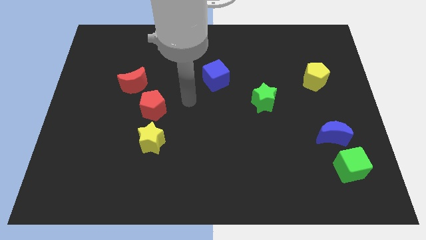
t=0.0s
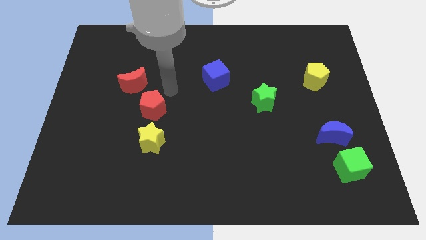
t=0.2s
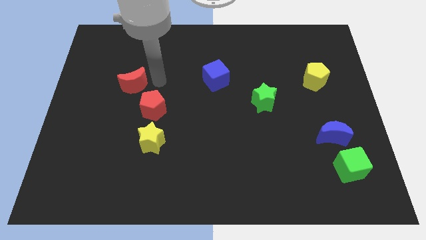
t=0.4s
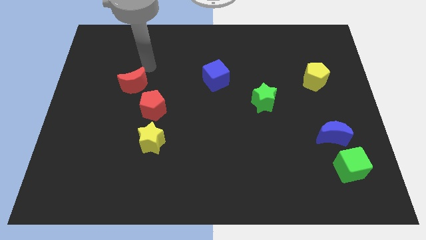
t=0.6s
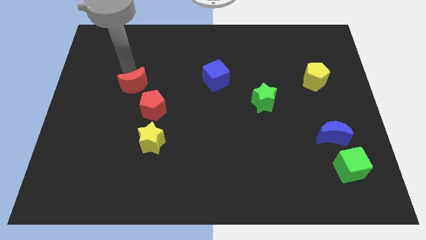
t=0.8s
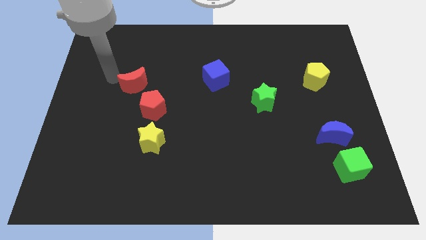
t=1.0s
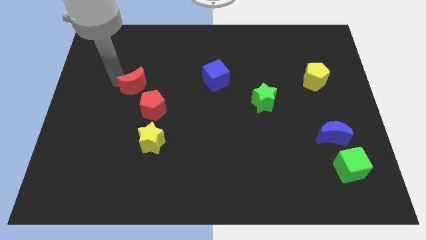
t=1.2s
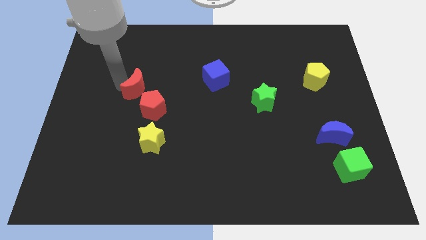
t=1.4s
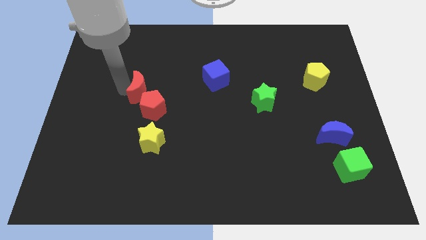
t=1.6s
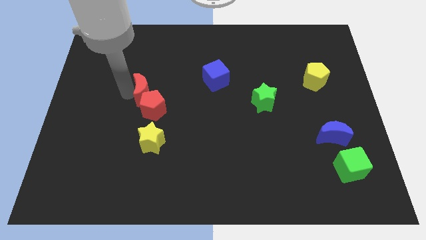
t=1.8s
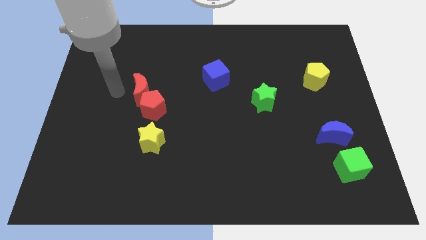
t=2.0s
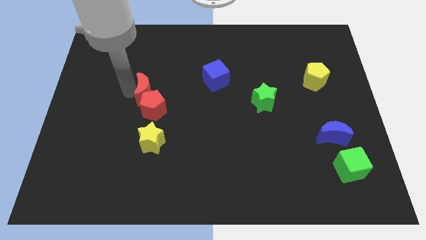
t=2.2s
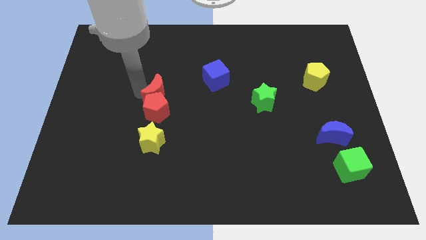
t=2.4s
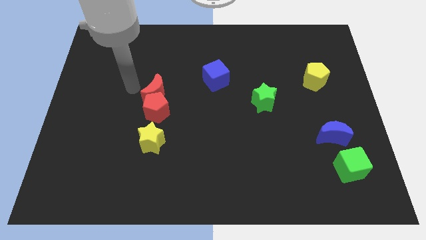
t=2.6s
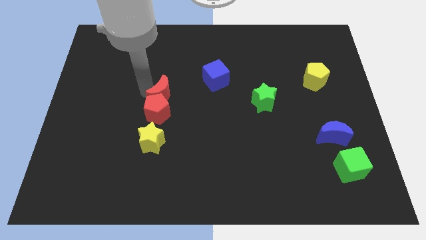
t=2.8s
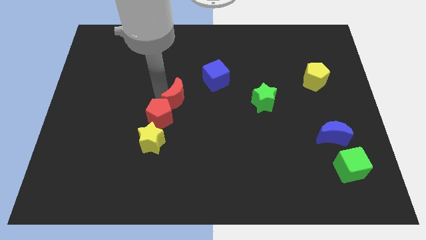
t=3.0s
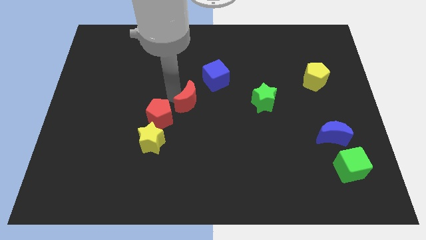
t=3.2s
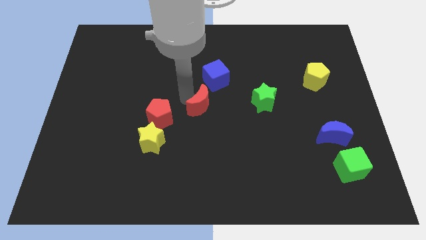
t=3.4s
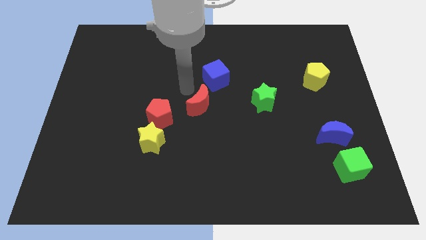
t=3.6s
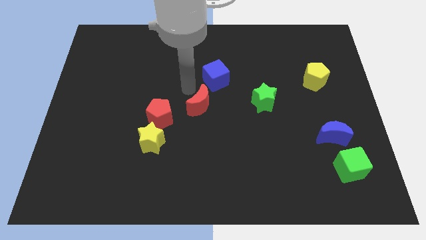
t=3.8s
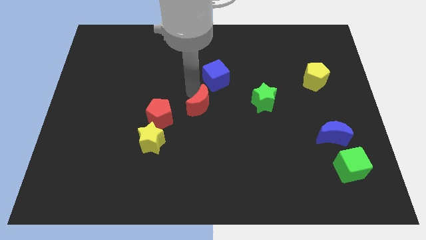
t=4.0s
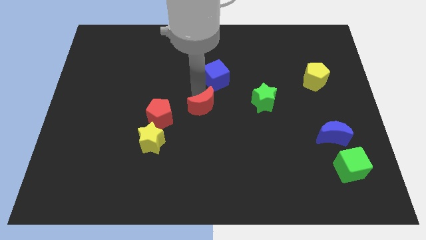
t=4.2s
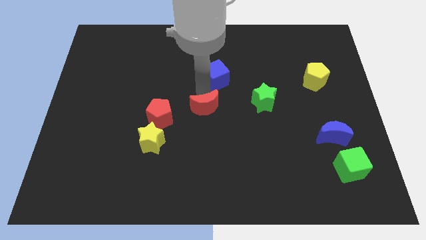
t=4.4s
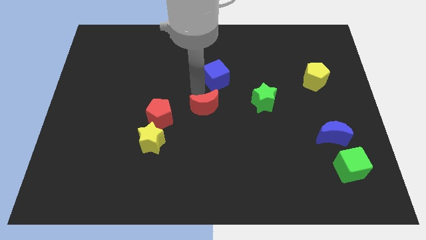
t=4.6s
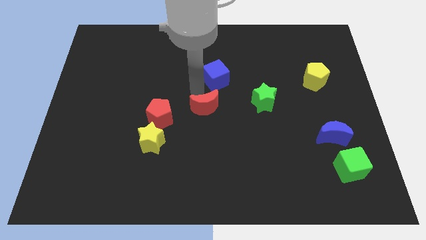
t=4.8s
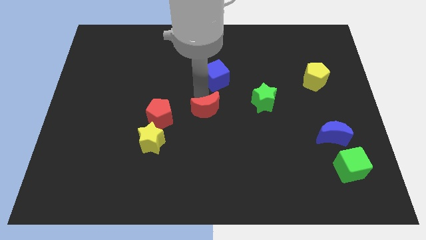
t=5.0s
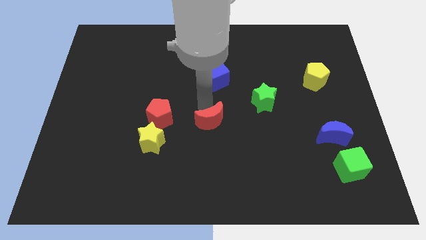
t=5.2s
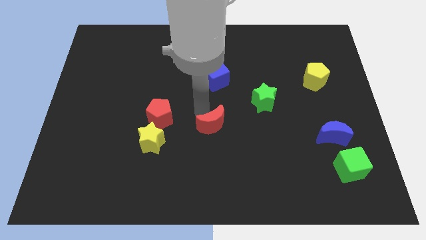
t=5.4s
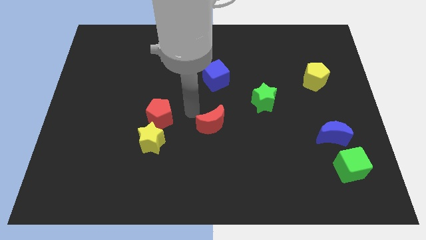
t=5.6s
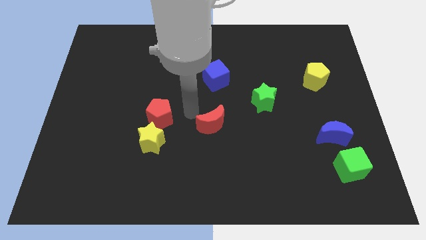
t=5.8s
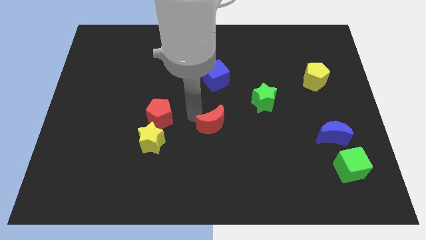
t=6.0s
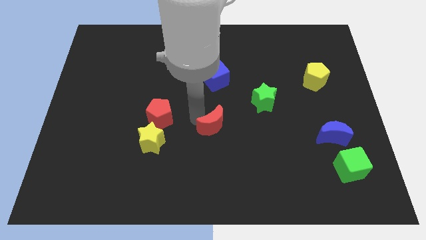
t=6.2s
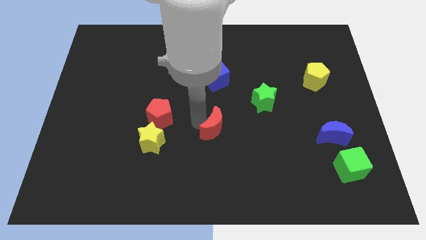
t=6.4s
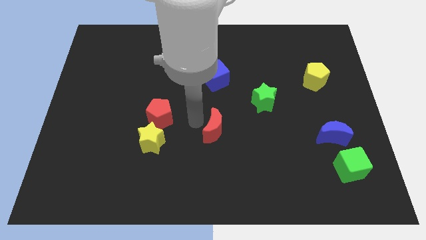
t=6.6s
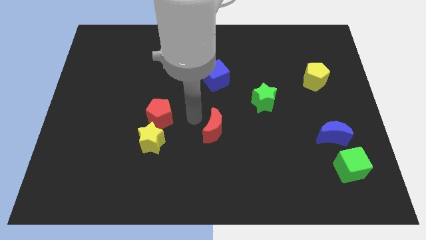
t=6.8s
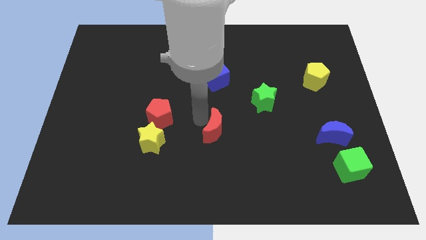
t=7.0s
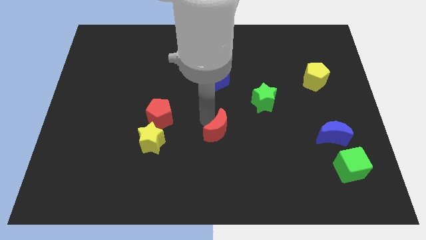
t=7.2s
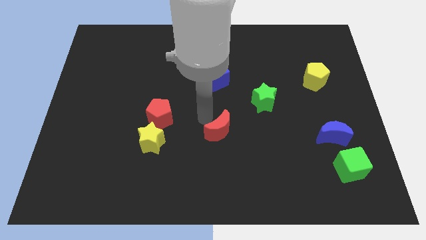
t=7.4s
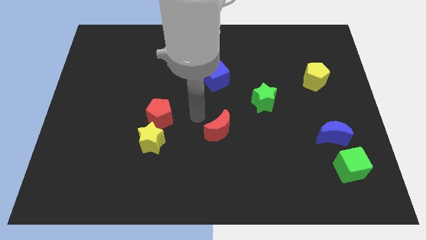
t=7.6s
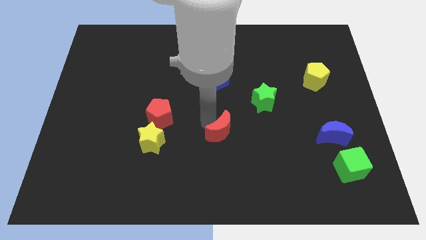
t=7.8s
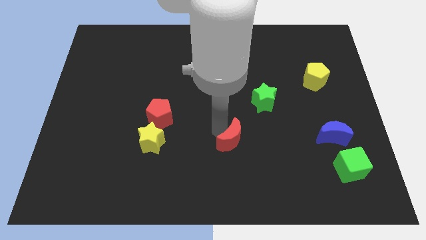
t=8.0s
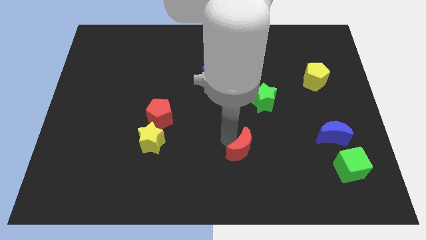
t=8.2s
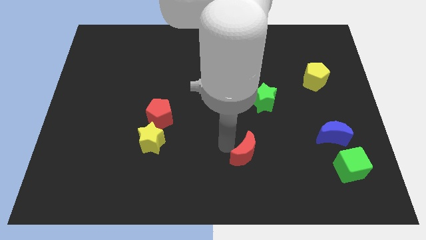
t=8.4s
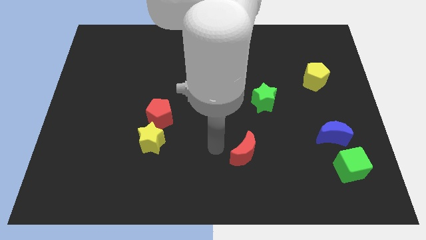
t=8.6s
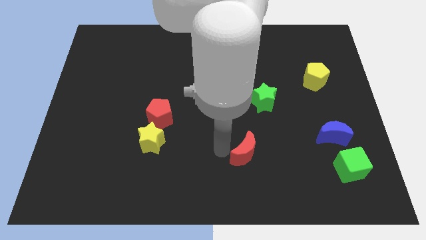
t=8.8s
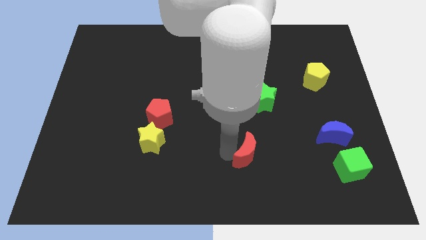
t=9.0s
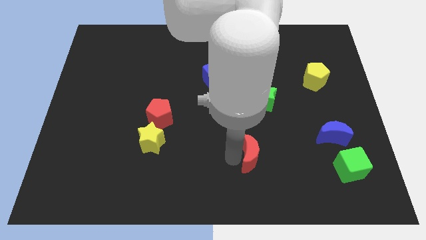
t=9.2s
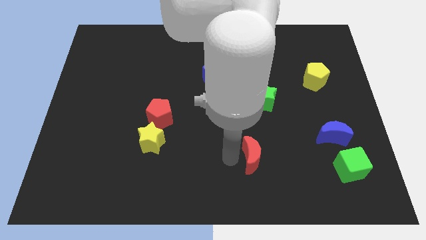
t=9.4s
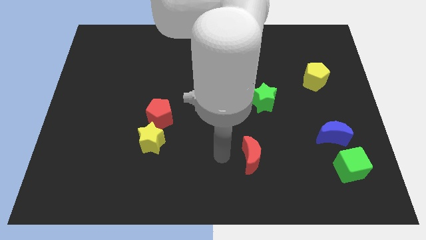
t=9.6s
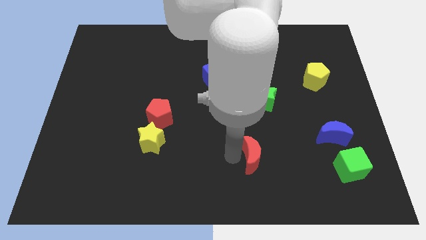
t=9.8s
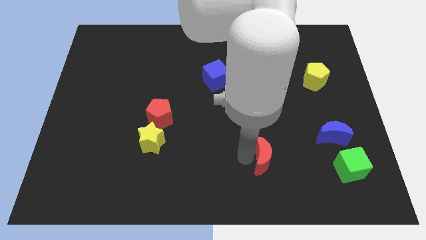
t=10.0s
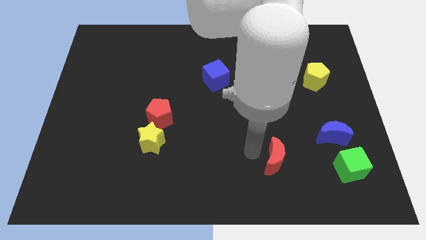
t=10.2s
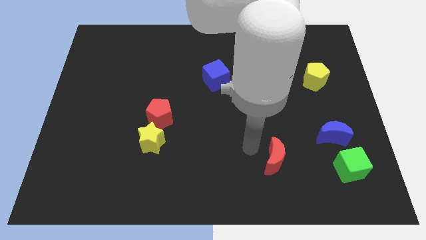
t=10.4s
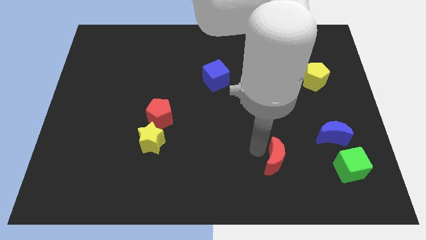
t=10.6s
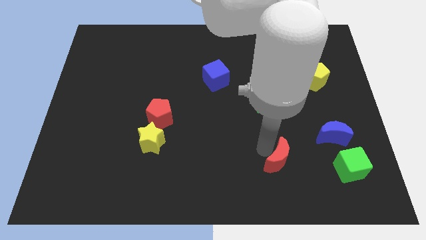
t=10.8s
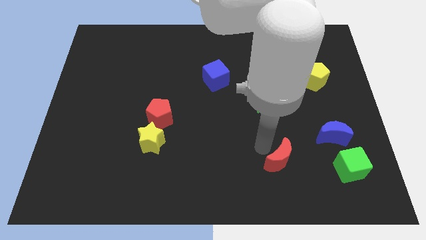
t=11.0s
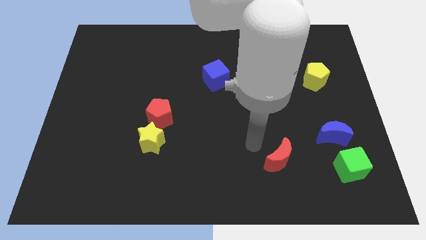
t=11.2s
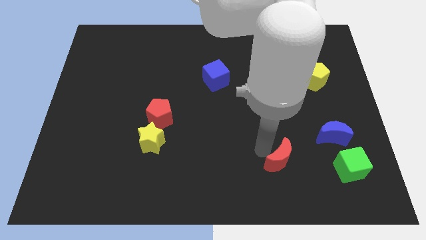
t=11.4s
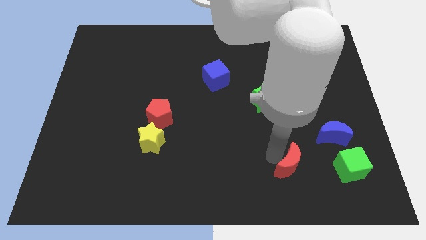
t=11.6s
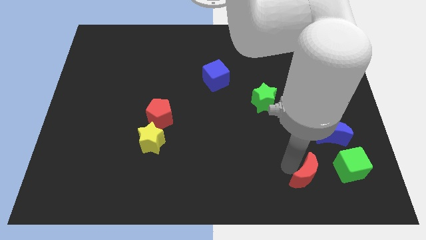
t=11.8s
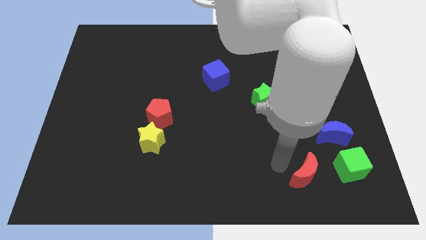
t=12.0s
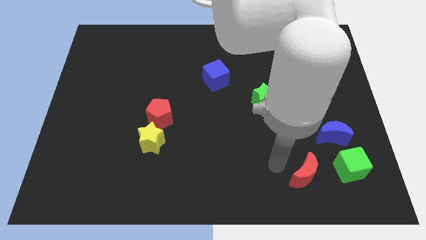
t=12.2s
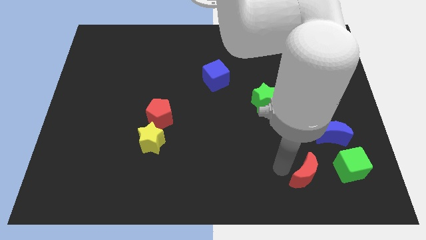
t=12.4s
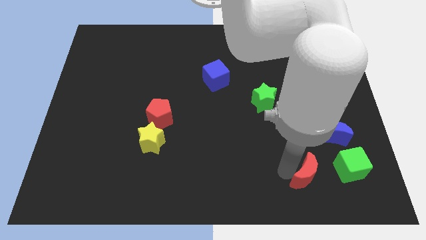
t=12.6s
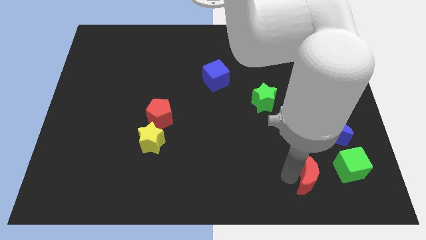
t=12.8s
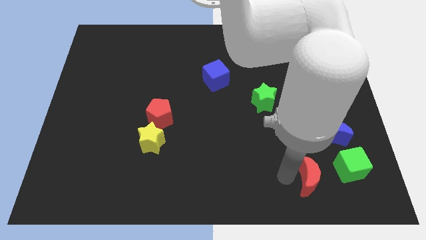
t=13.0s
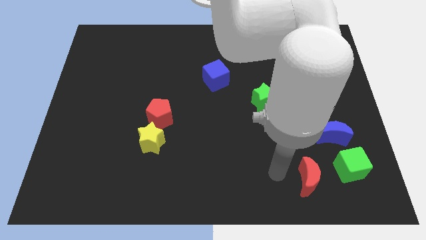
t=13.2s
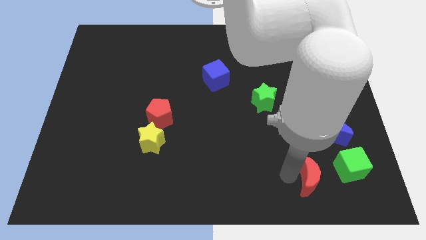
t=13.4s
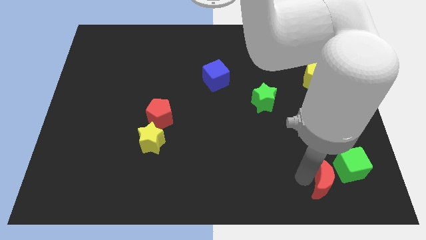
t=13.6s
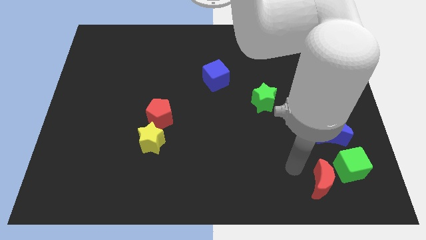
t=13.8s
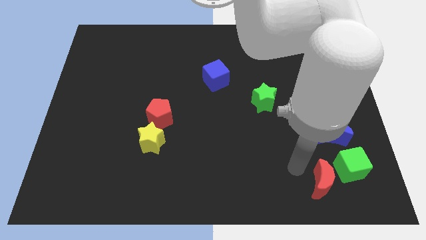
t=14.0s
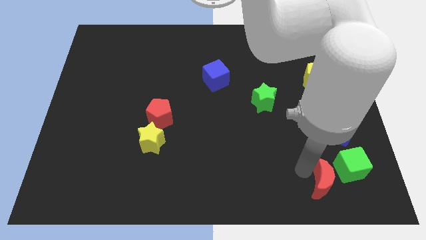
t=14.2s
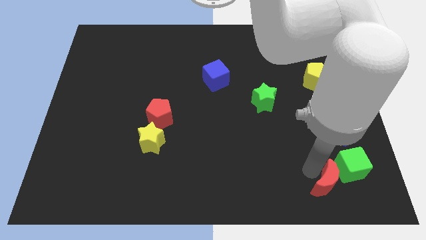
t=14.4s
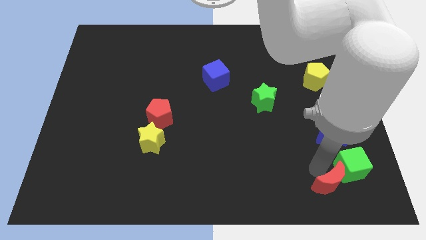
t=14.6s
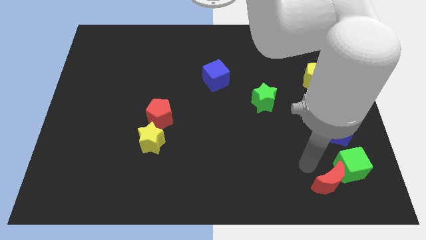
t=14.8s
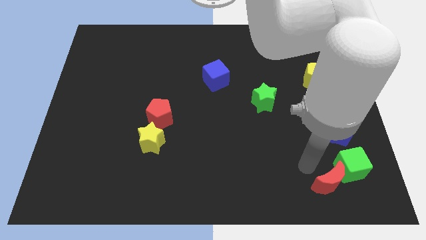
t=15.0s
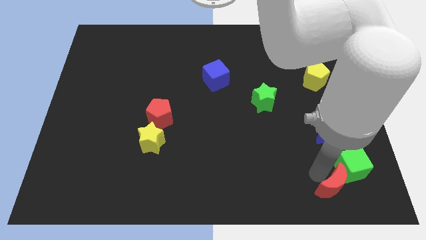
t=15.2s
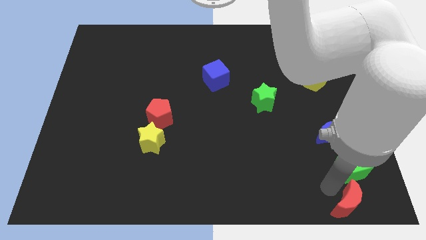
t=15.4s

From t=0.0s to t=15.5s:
put the red moon to the bottom right corner
